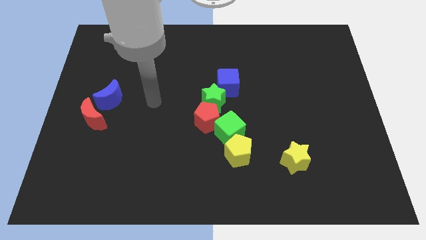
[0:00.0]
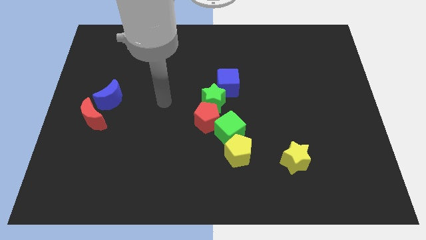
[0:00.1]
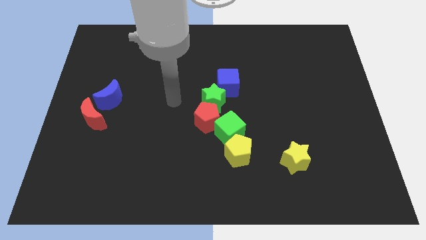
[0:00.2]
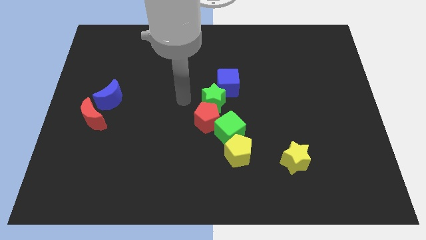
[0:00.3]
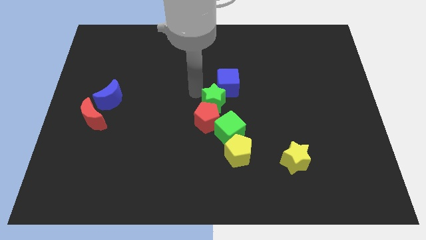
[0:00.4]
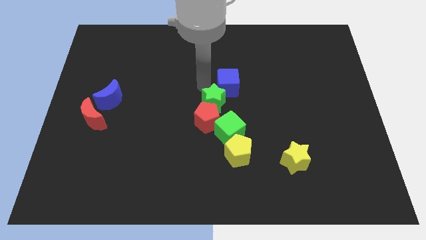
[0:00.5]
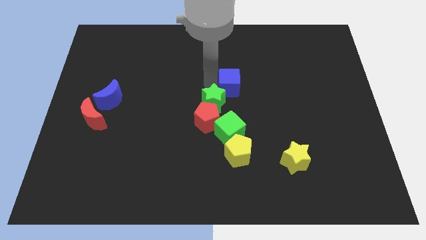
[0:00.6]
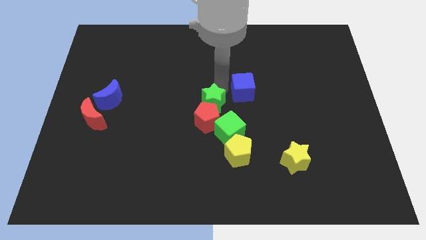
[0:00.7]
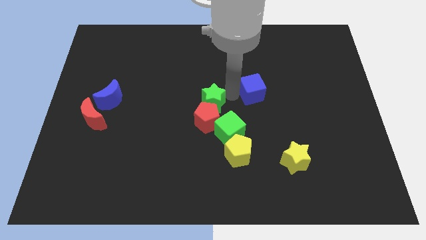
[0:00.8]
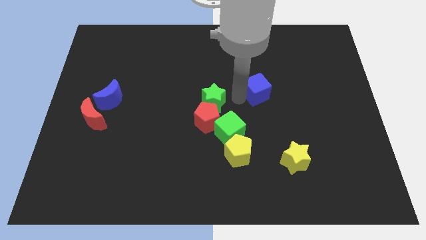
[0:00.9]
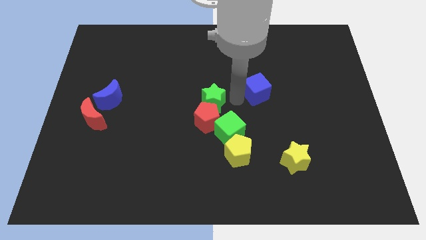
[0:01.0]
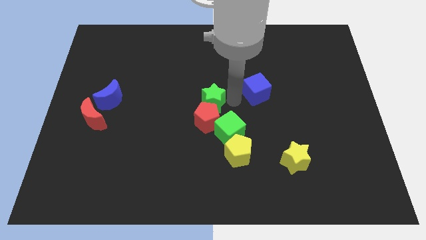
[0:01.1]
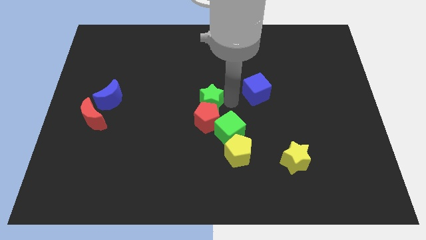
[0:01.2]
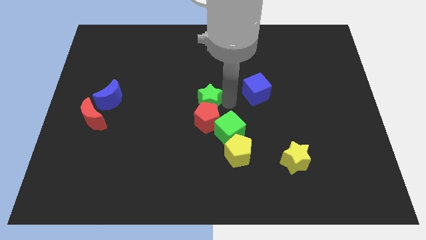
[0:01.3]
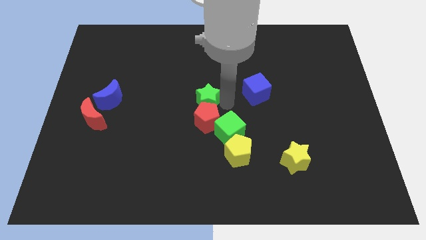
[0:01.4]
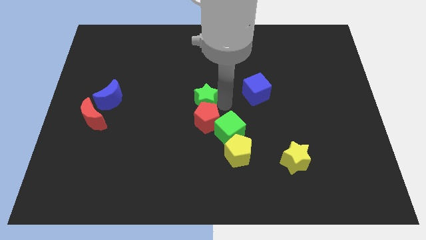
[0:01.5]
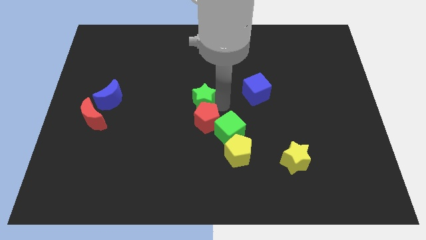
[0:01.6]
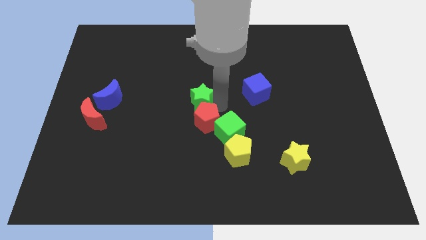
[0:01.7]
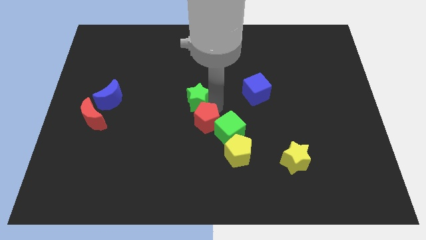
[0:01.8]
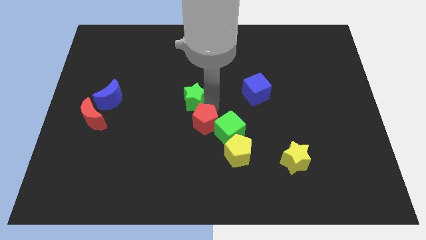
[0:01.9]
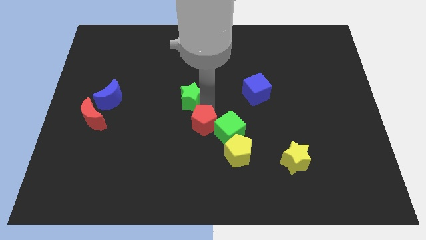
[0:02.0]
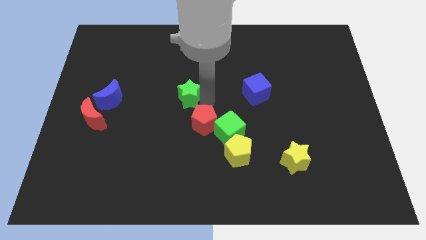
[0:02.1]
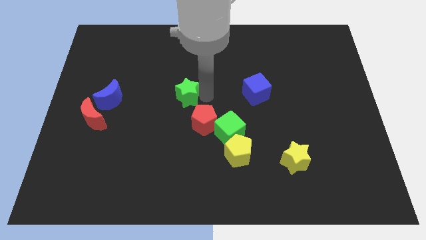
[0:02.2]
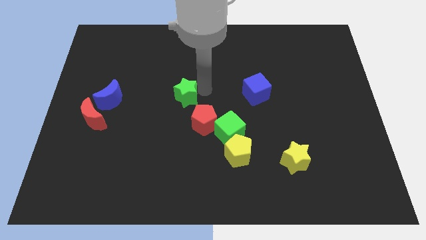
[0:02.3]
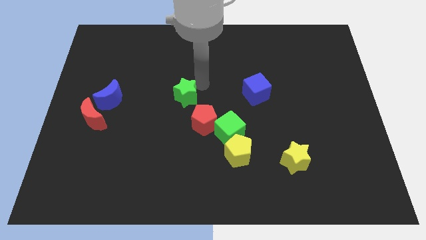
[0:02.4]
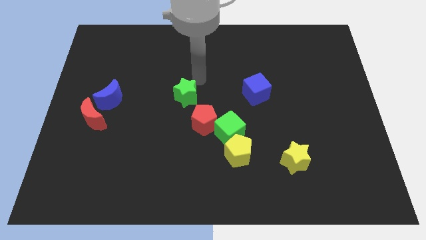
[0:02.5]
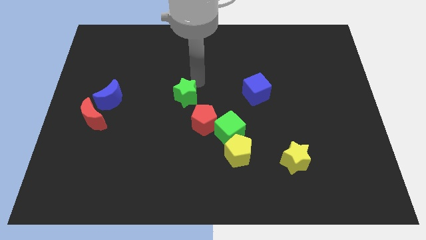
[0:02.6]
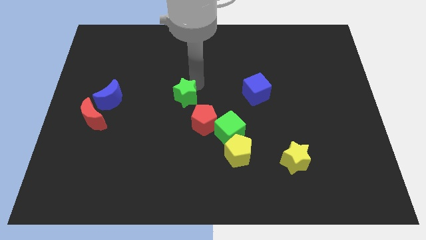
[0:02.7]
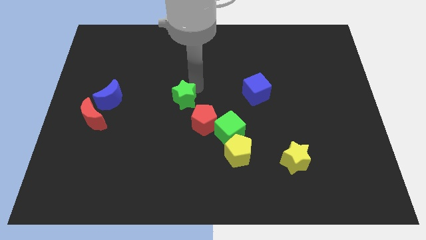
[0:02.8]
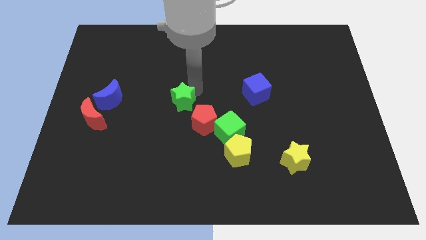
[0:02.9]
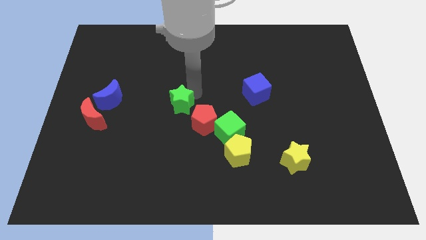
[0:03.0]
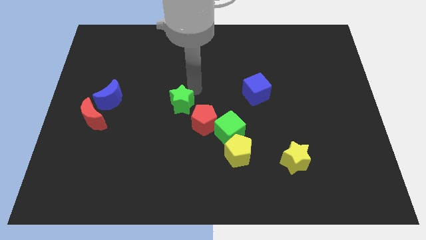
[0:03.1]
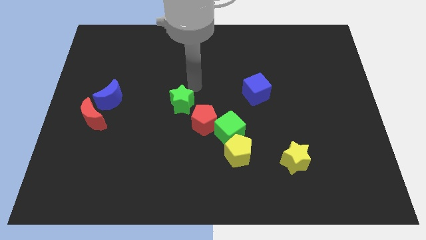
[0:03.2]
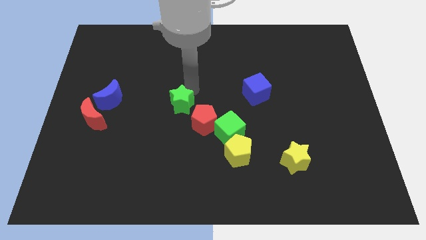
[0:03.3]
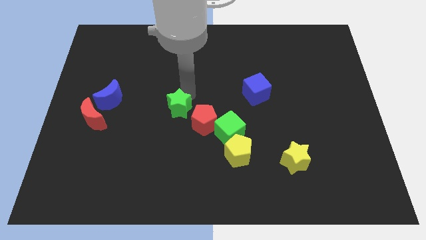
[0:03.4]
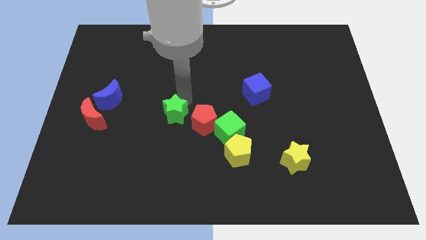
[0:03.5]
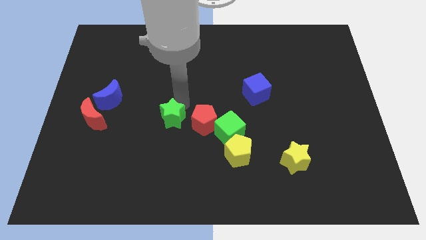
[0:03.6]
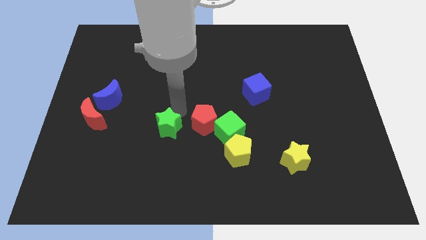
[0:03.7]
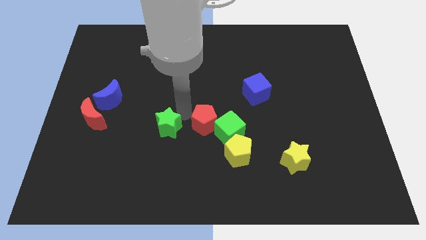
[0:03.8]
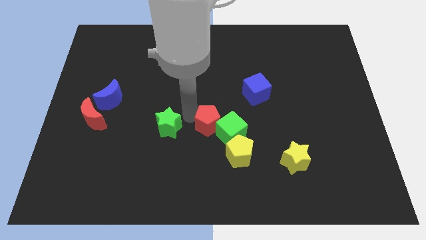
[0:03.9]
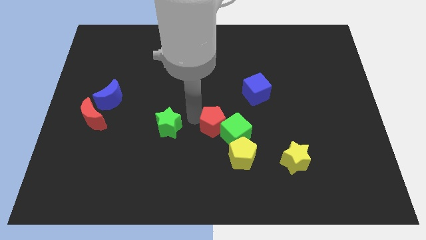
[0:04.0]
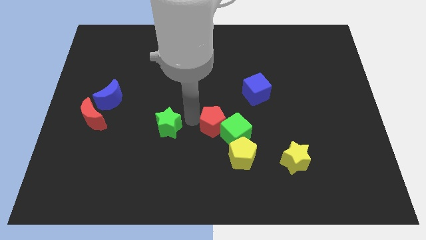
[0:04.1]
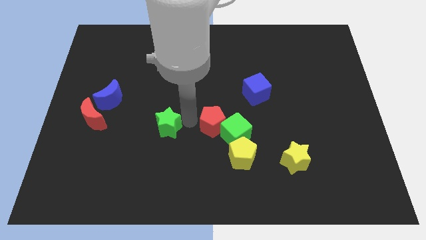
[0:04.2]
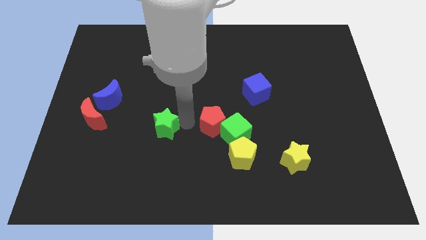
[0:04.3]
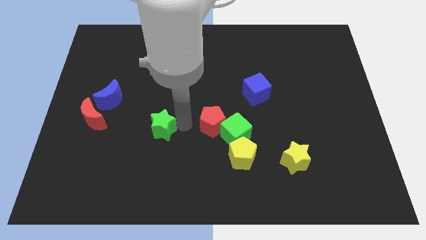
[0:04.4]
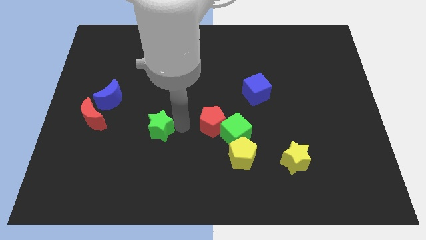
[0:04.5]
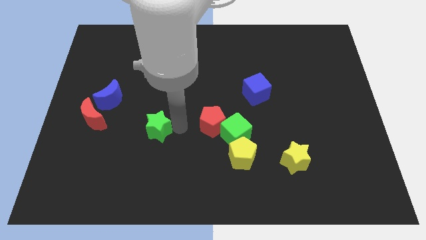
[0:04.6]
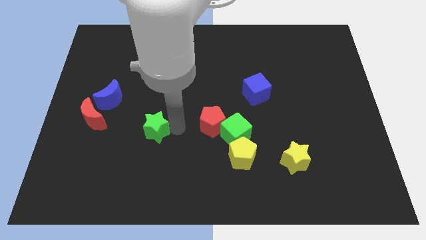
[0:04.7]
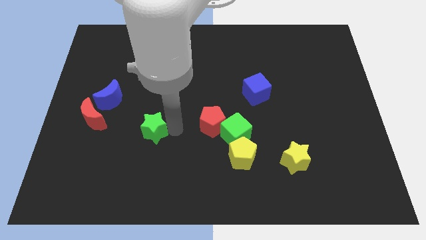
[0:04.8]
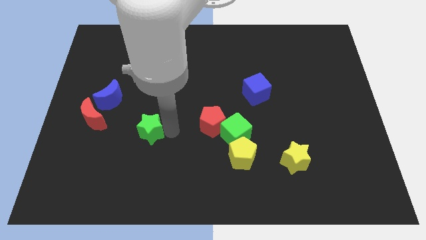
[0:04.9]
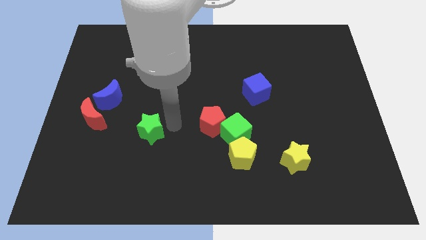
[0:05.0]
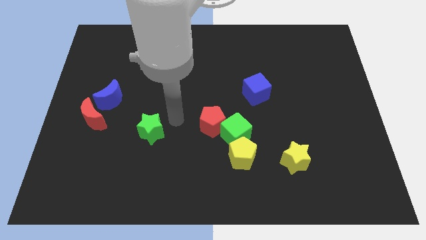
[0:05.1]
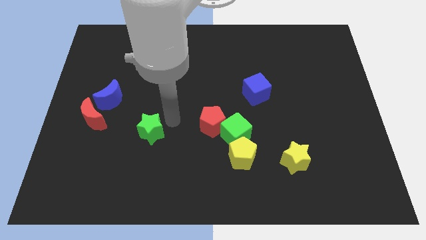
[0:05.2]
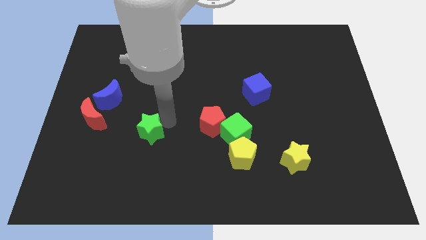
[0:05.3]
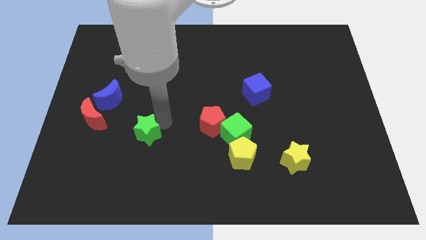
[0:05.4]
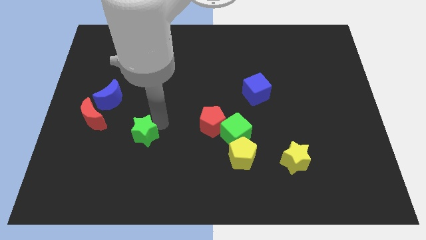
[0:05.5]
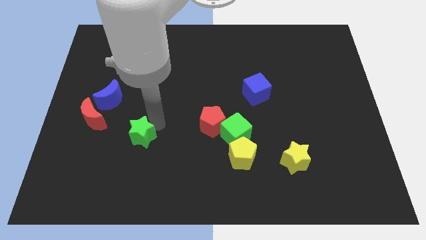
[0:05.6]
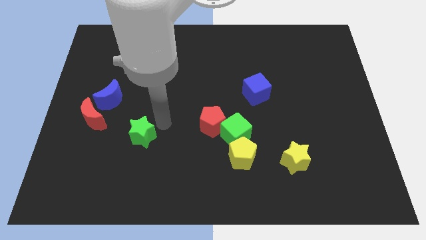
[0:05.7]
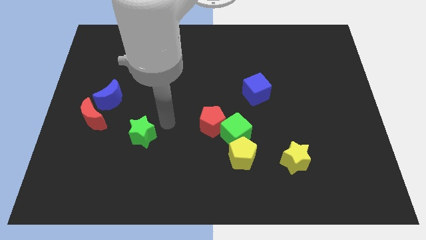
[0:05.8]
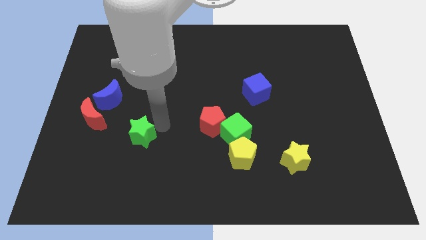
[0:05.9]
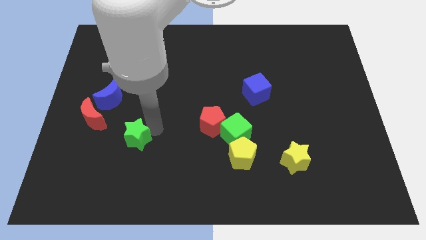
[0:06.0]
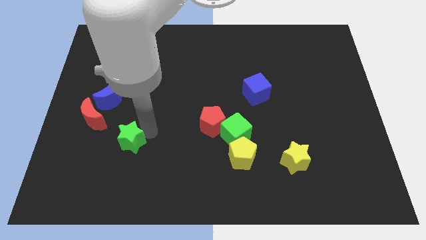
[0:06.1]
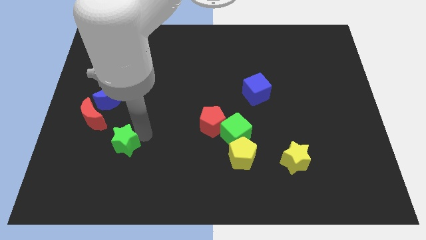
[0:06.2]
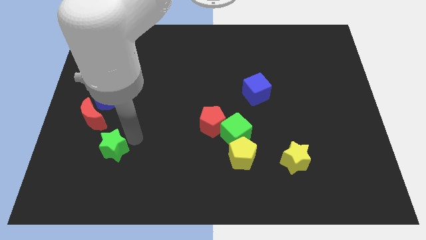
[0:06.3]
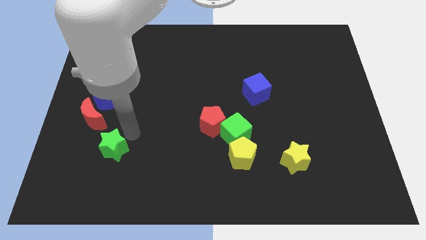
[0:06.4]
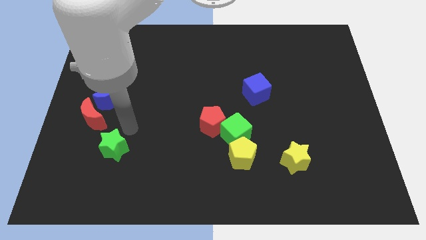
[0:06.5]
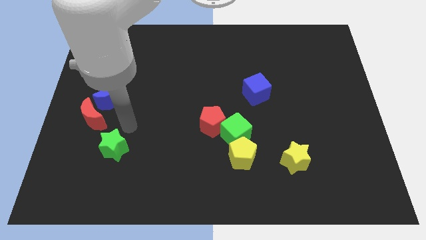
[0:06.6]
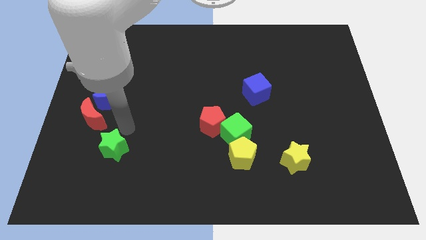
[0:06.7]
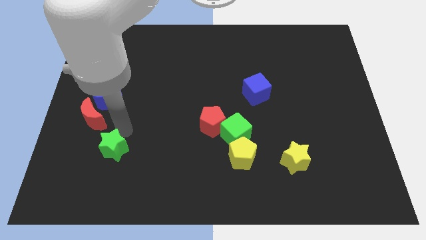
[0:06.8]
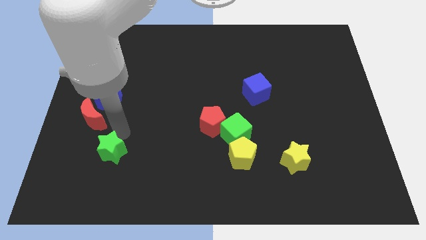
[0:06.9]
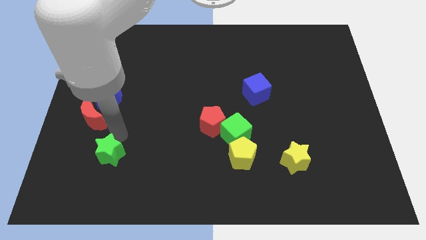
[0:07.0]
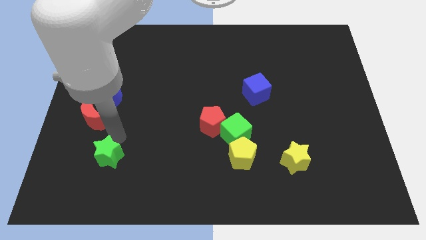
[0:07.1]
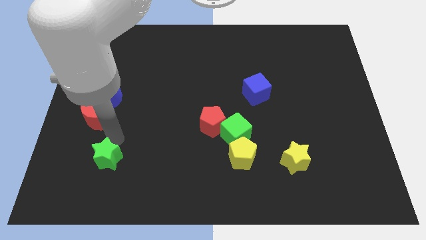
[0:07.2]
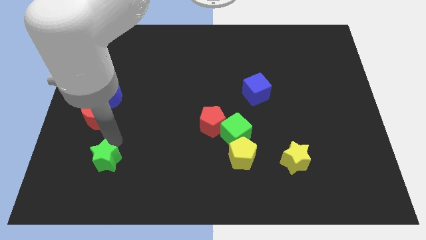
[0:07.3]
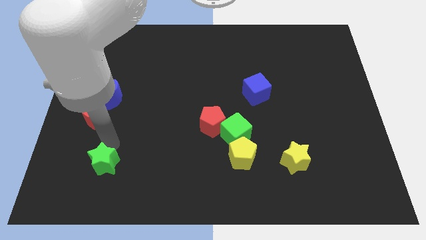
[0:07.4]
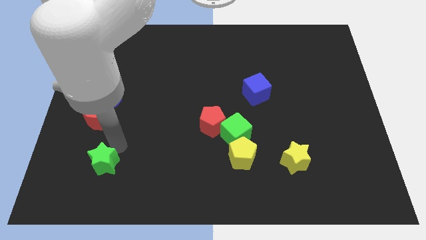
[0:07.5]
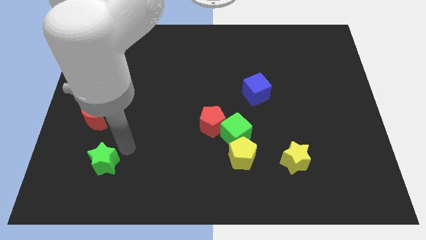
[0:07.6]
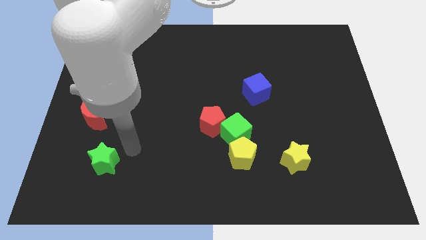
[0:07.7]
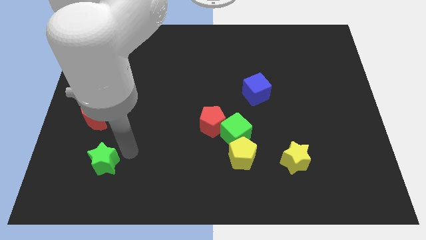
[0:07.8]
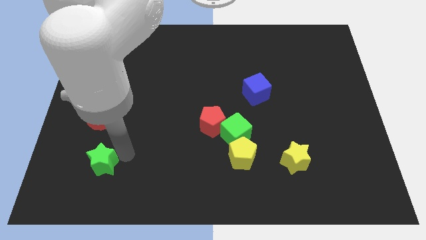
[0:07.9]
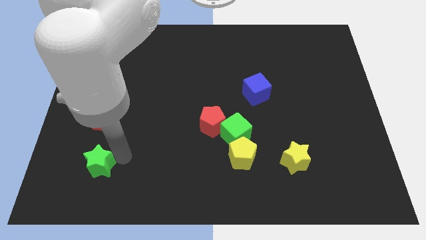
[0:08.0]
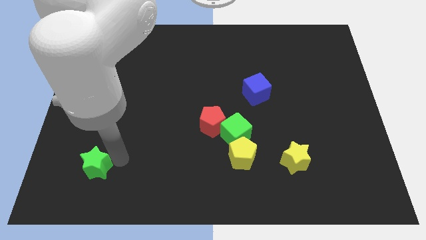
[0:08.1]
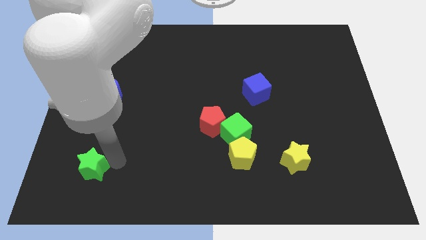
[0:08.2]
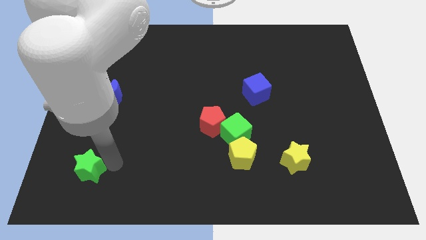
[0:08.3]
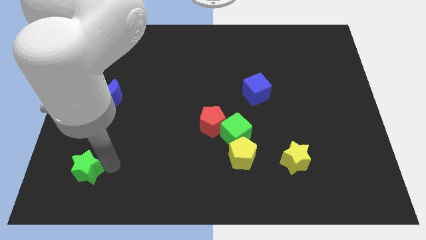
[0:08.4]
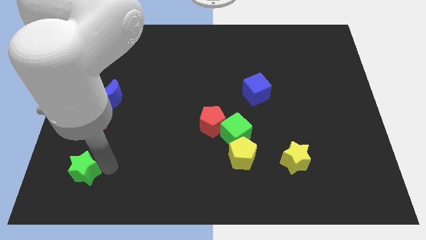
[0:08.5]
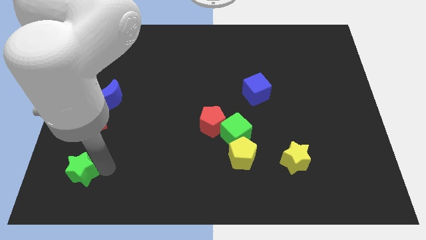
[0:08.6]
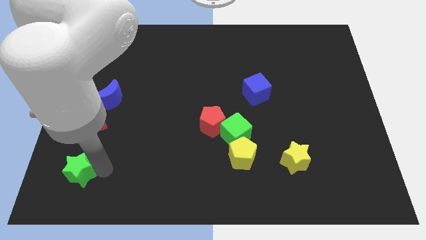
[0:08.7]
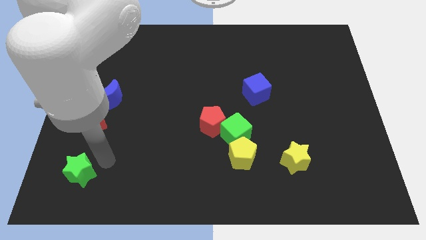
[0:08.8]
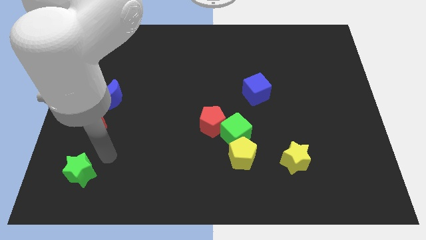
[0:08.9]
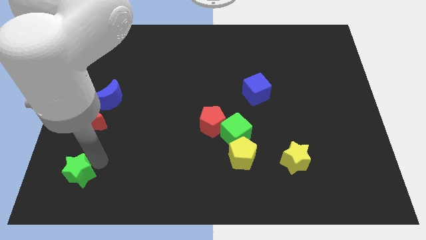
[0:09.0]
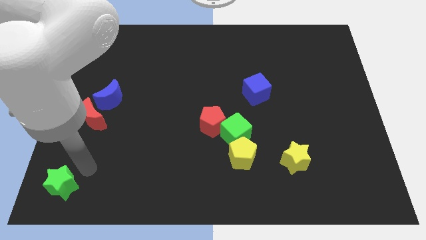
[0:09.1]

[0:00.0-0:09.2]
put the green star to the bottom left corner
